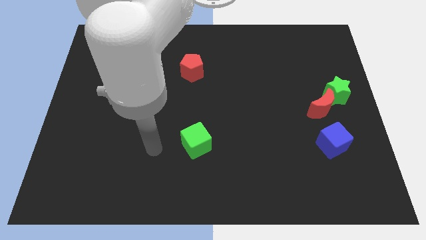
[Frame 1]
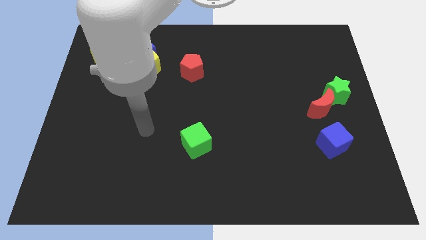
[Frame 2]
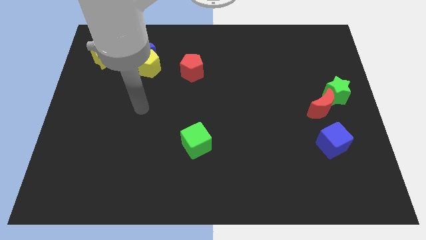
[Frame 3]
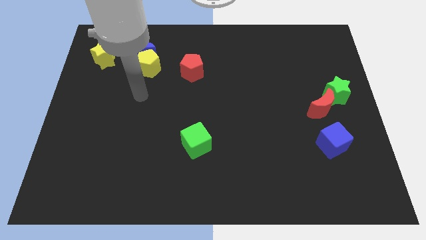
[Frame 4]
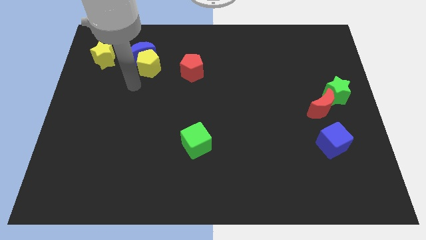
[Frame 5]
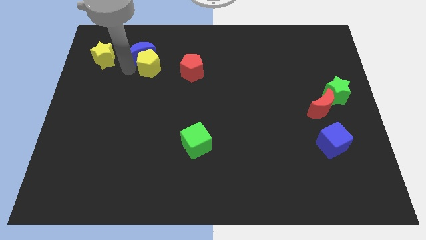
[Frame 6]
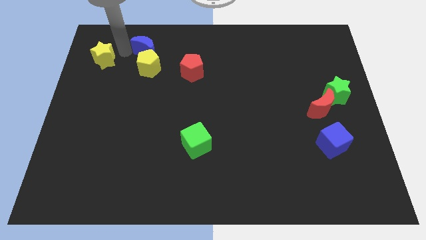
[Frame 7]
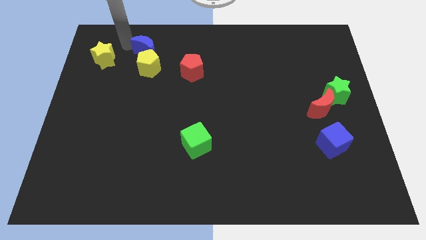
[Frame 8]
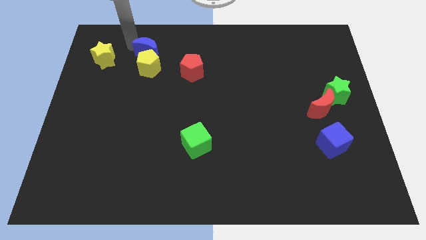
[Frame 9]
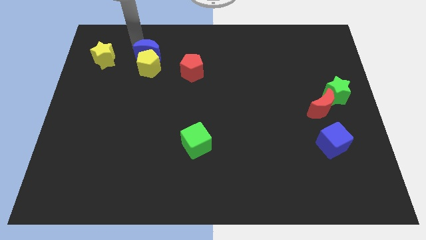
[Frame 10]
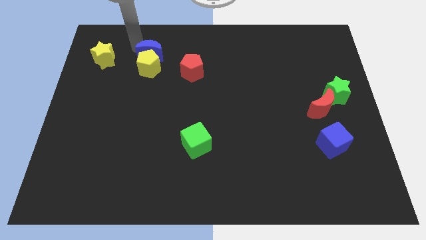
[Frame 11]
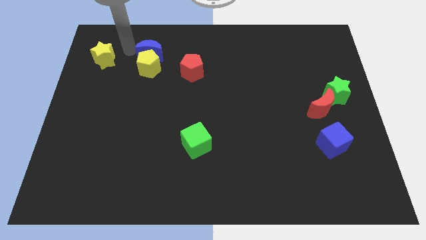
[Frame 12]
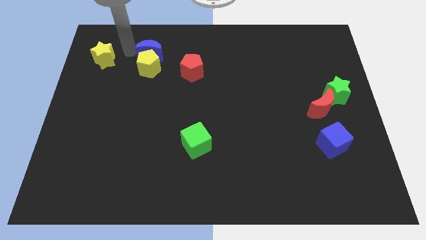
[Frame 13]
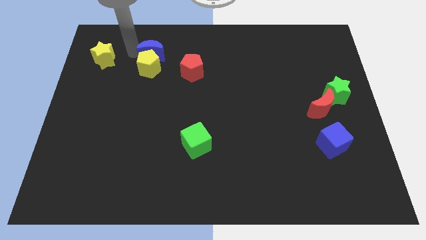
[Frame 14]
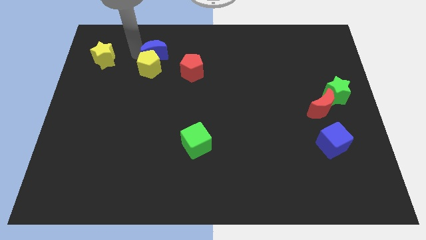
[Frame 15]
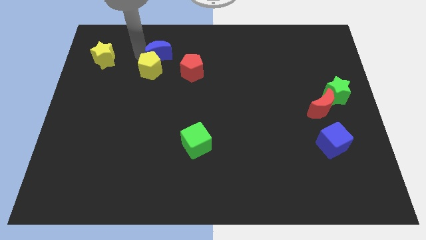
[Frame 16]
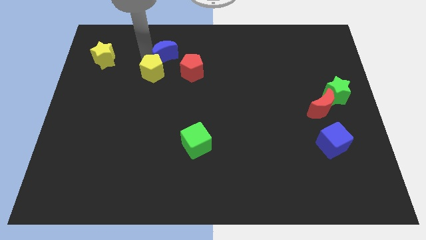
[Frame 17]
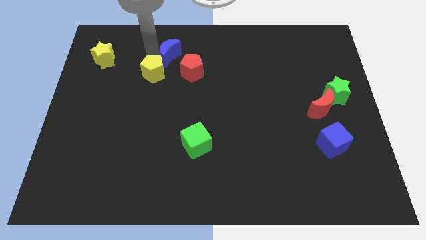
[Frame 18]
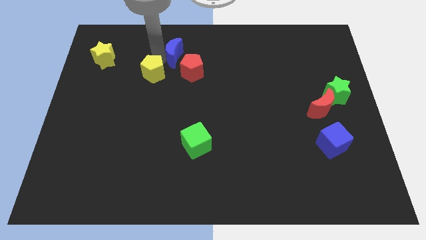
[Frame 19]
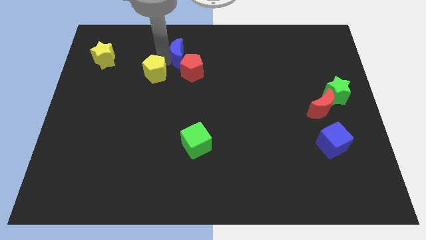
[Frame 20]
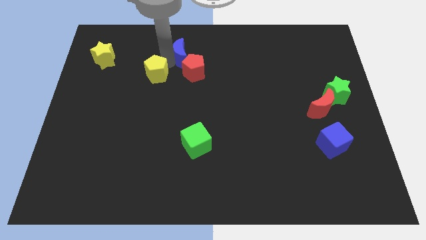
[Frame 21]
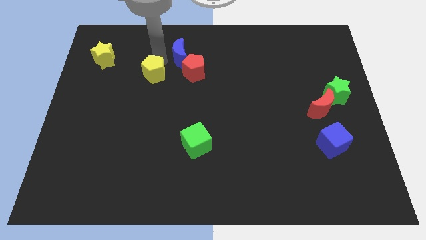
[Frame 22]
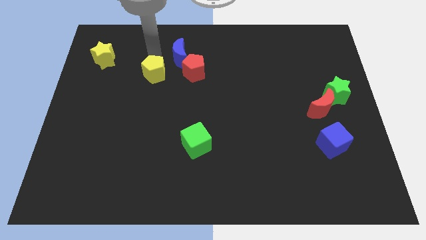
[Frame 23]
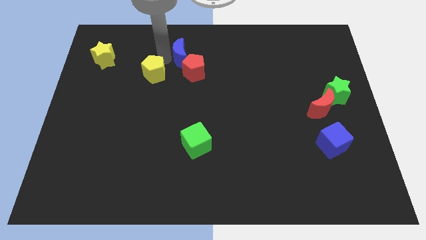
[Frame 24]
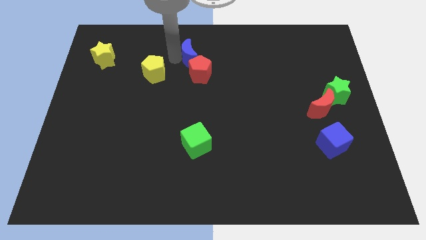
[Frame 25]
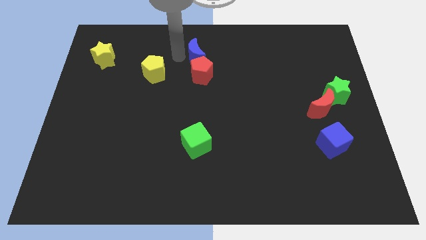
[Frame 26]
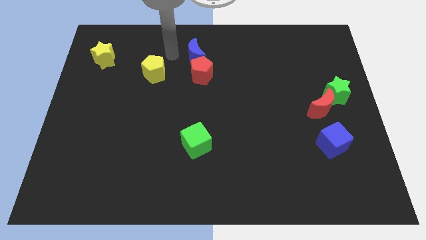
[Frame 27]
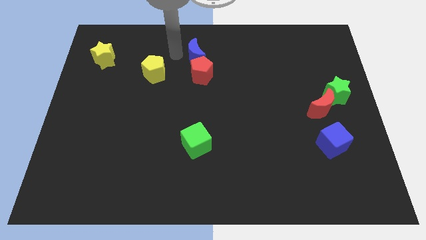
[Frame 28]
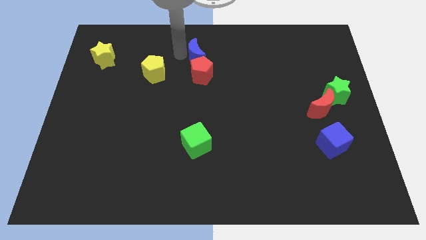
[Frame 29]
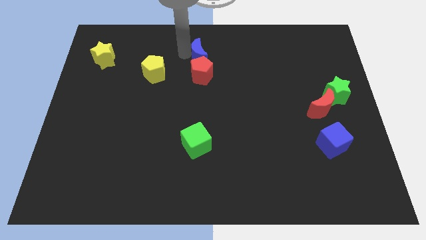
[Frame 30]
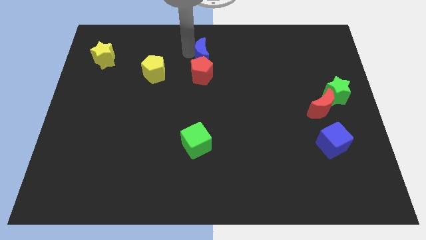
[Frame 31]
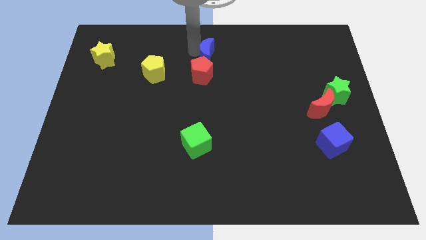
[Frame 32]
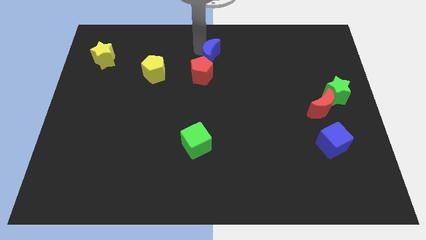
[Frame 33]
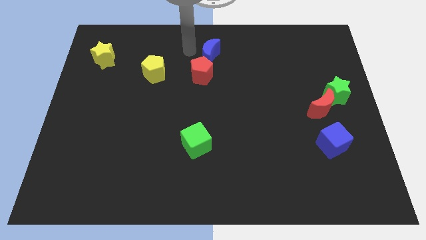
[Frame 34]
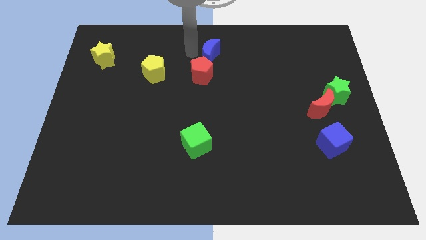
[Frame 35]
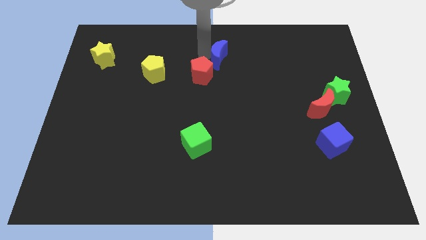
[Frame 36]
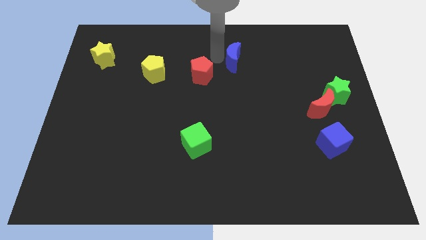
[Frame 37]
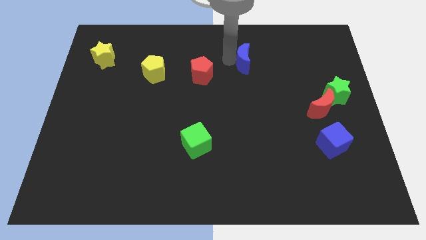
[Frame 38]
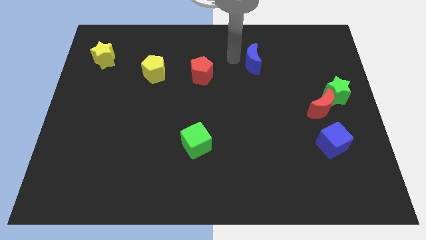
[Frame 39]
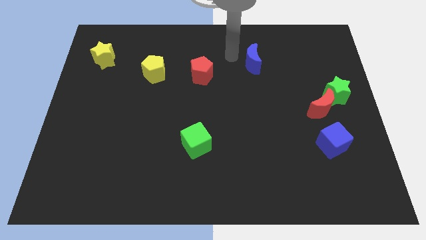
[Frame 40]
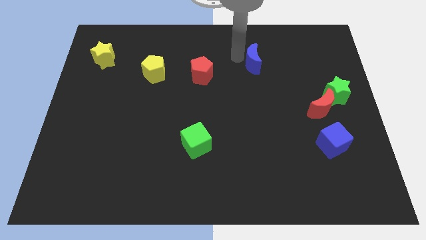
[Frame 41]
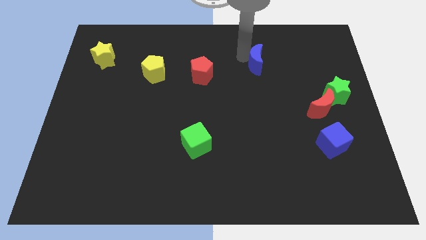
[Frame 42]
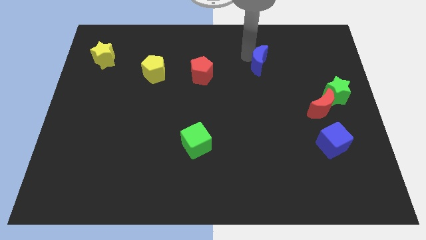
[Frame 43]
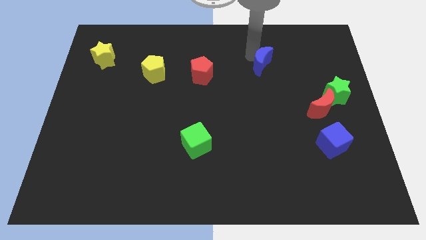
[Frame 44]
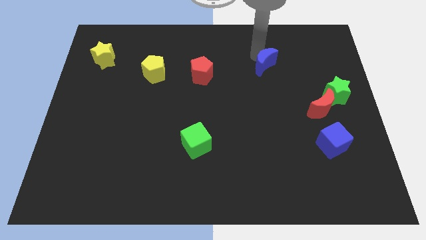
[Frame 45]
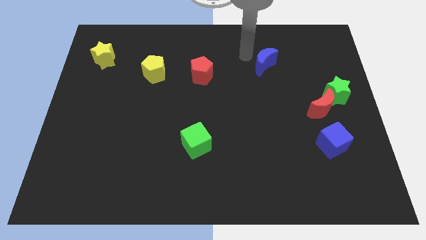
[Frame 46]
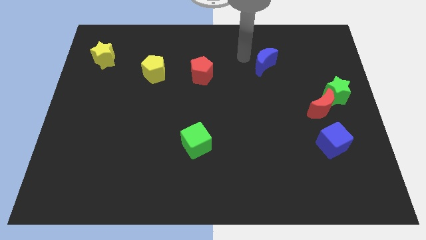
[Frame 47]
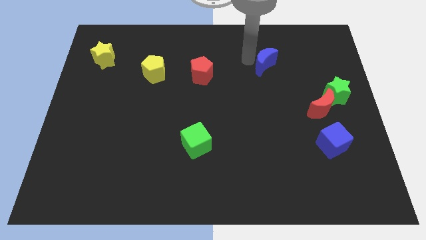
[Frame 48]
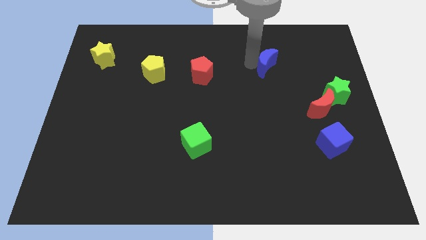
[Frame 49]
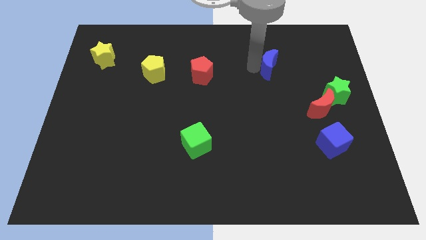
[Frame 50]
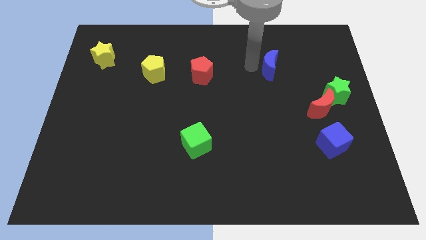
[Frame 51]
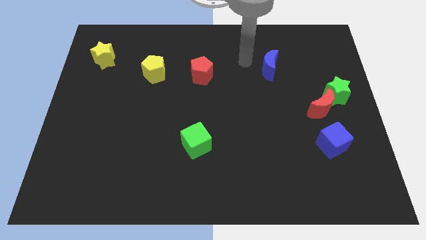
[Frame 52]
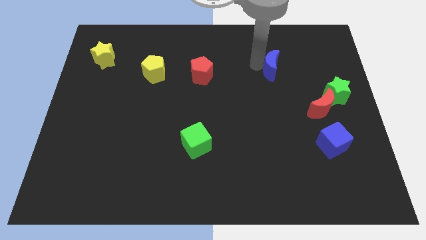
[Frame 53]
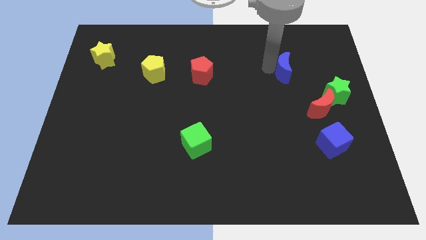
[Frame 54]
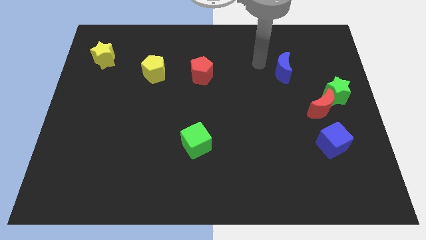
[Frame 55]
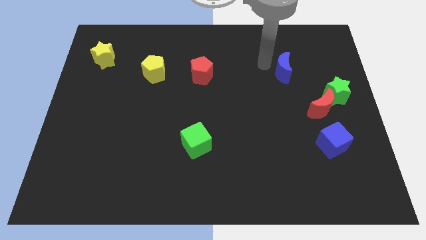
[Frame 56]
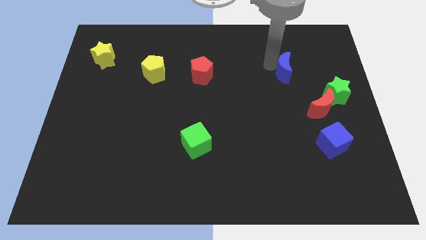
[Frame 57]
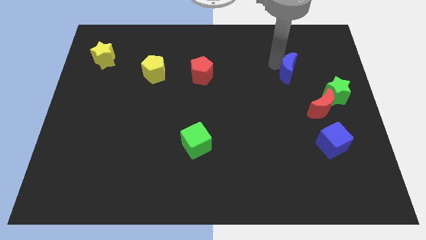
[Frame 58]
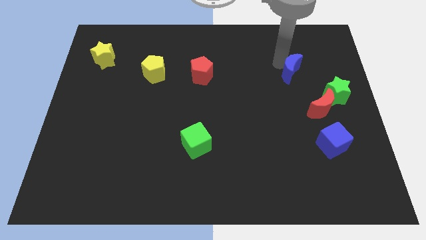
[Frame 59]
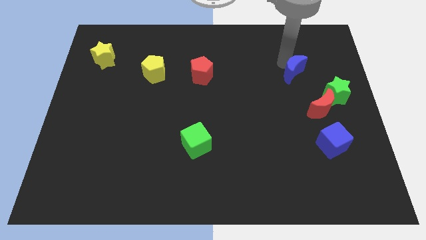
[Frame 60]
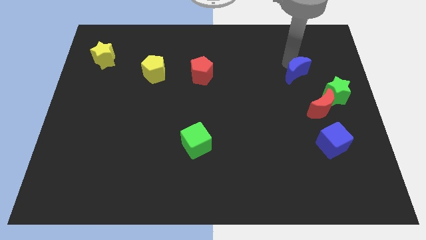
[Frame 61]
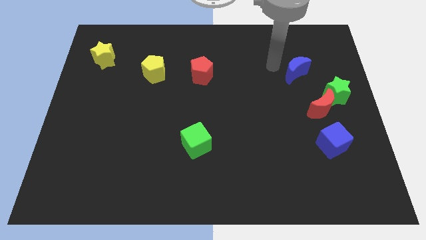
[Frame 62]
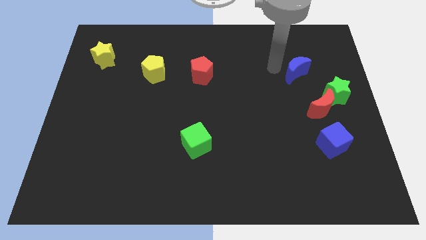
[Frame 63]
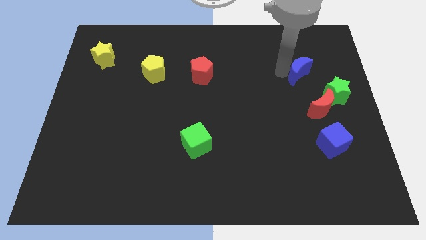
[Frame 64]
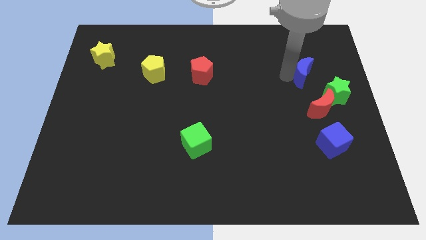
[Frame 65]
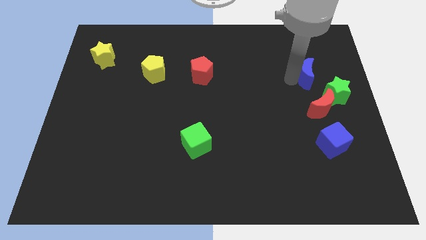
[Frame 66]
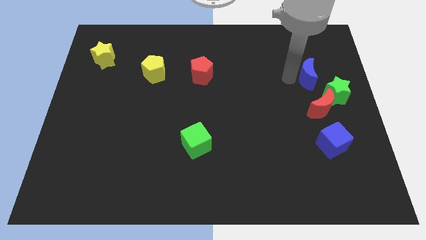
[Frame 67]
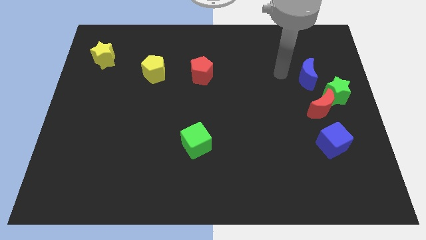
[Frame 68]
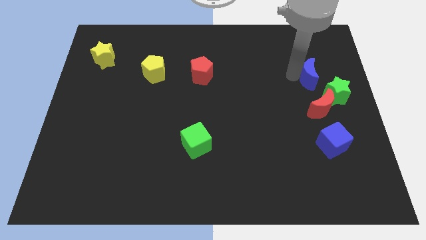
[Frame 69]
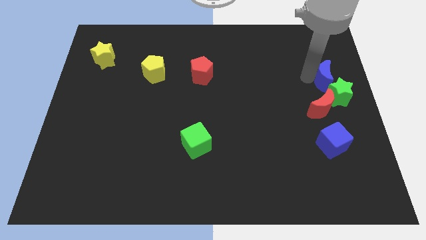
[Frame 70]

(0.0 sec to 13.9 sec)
slide the blue moon to the right side of the board
